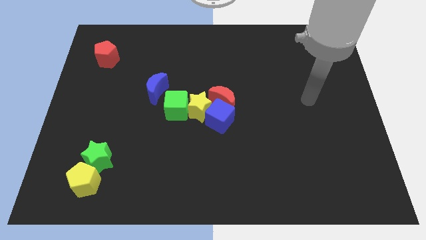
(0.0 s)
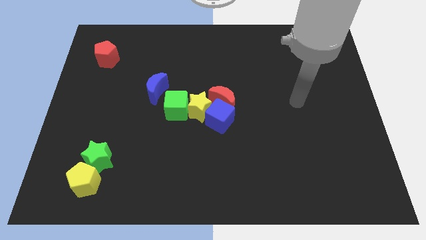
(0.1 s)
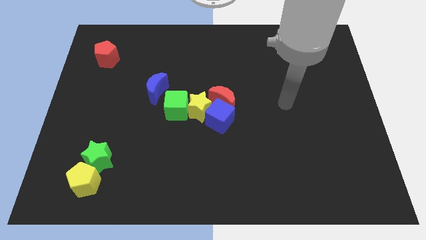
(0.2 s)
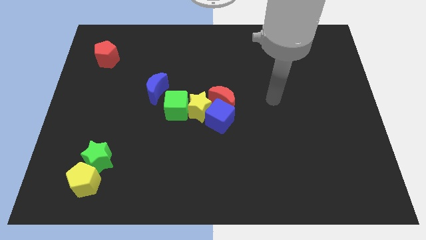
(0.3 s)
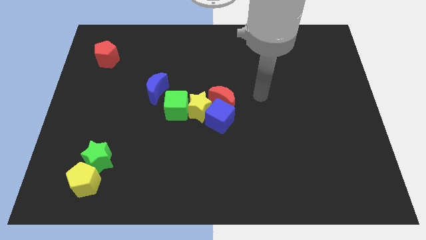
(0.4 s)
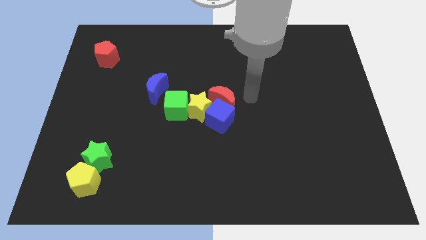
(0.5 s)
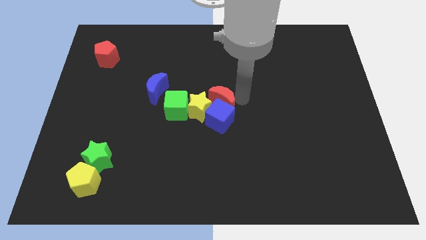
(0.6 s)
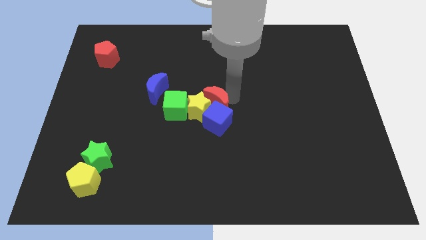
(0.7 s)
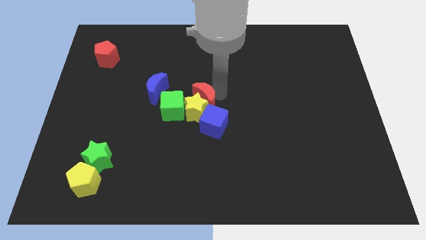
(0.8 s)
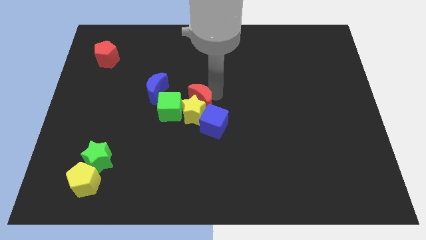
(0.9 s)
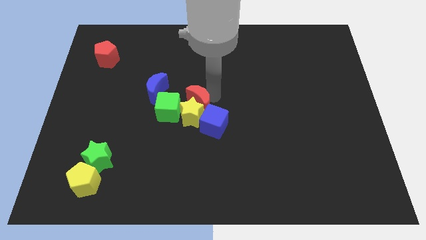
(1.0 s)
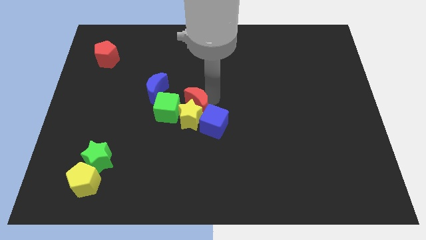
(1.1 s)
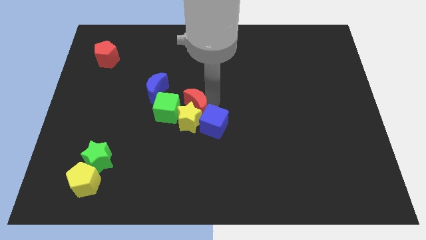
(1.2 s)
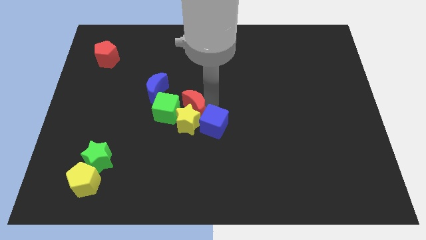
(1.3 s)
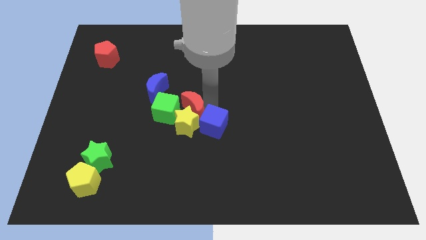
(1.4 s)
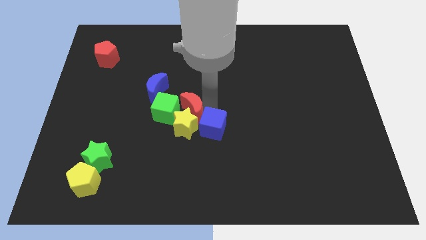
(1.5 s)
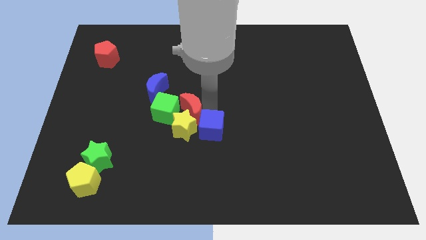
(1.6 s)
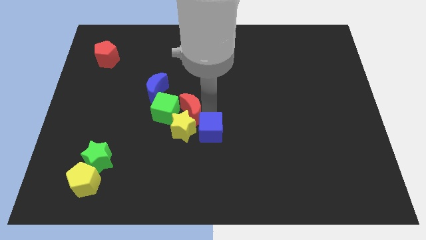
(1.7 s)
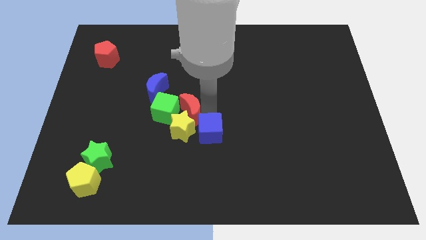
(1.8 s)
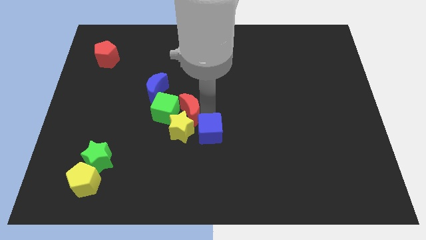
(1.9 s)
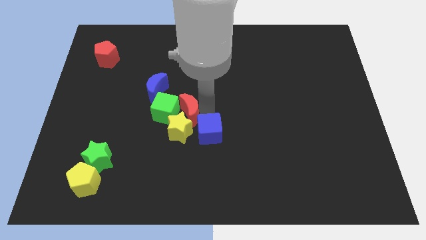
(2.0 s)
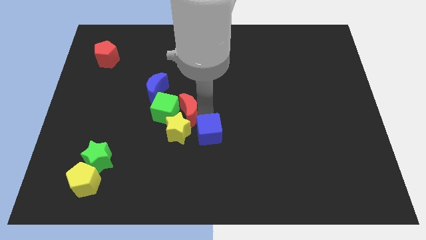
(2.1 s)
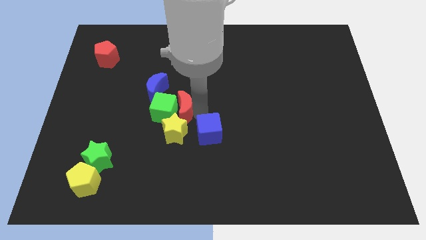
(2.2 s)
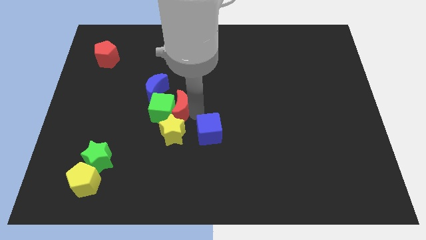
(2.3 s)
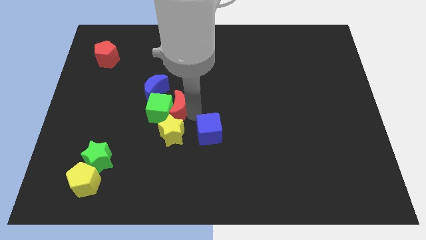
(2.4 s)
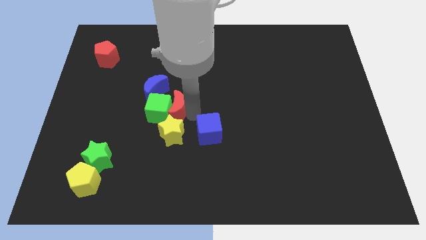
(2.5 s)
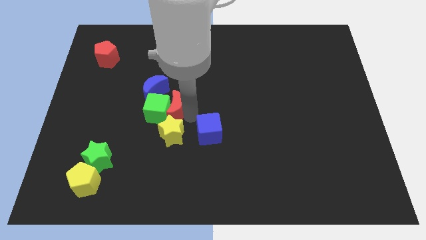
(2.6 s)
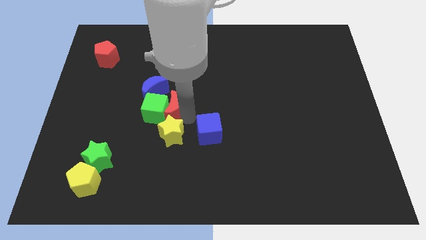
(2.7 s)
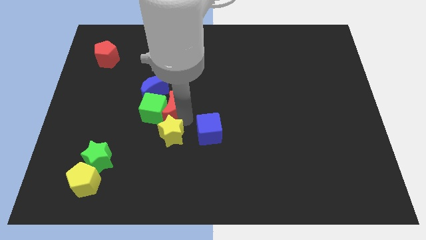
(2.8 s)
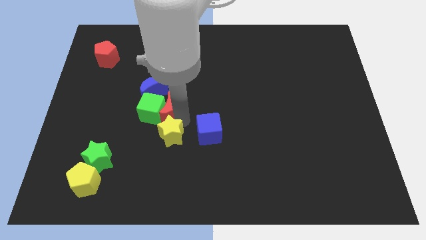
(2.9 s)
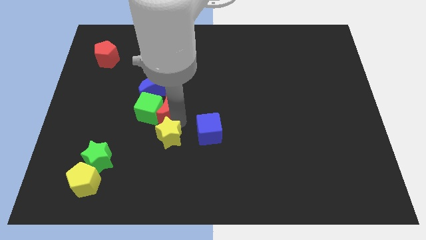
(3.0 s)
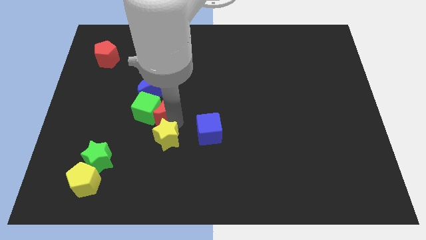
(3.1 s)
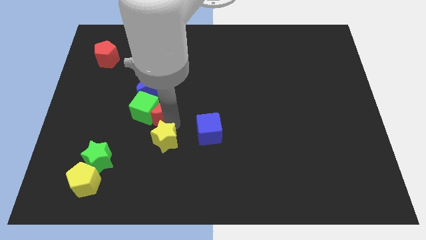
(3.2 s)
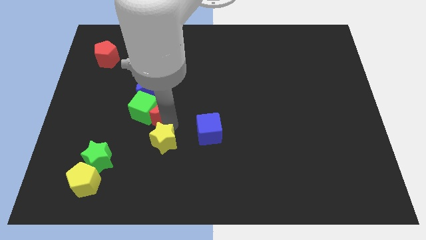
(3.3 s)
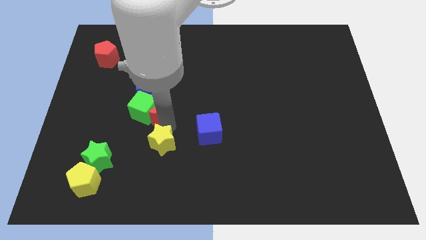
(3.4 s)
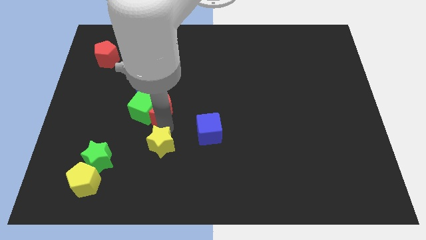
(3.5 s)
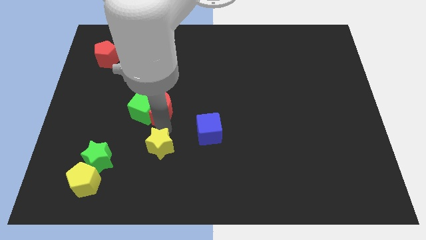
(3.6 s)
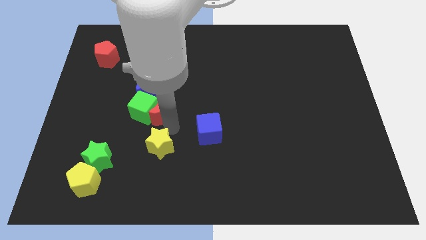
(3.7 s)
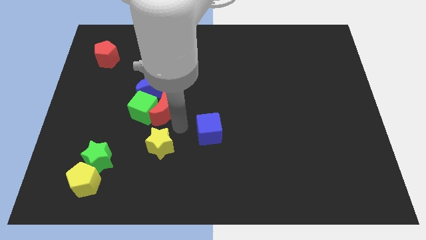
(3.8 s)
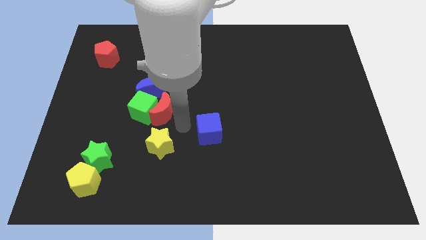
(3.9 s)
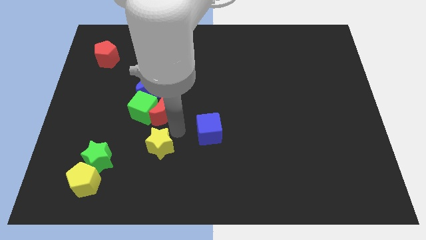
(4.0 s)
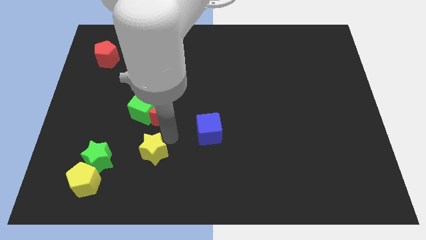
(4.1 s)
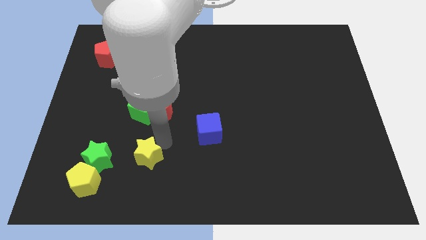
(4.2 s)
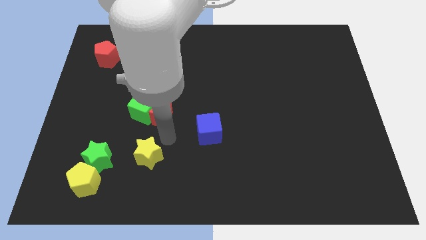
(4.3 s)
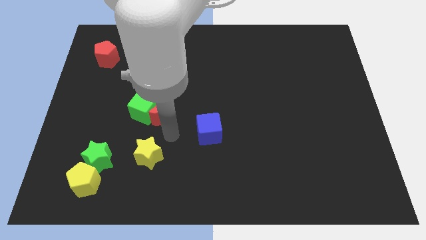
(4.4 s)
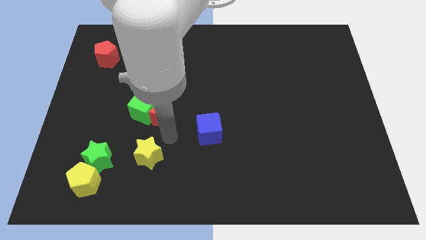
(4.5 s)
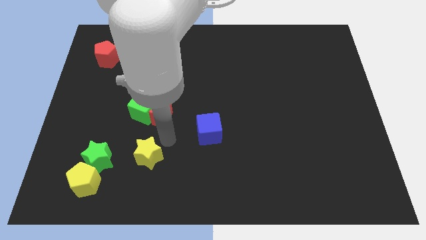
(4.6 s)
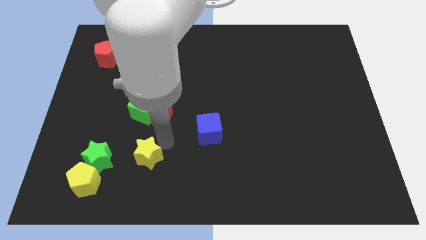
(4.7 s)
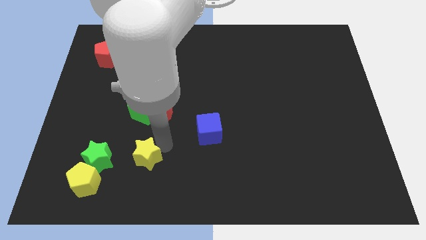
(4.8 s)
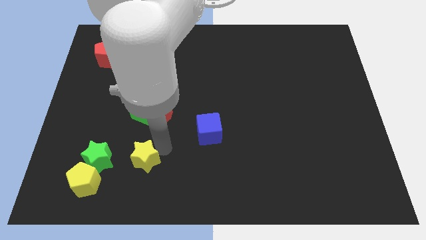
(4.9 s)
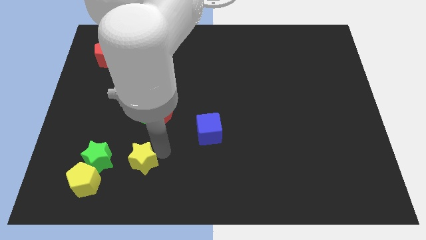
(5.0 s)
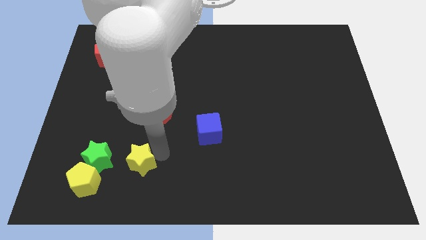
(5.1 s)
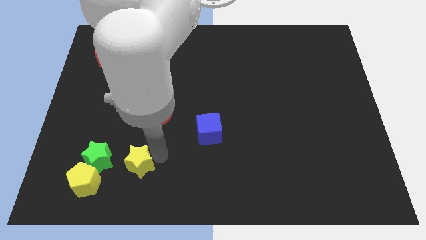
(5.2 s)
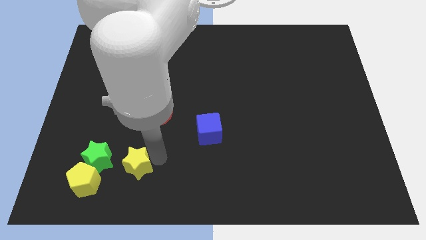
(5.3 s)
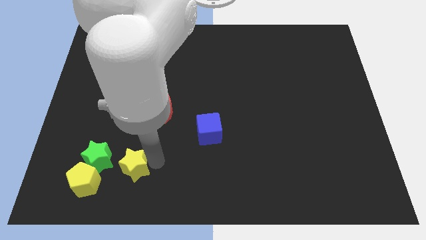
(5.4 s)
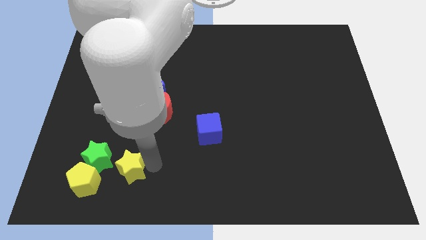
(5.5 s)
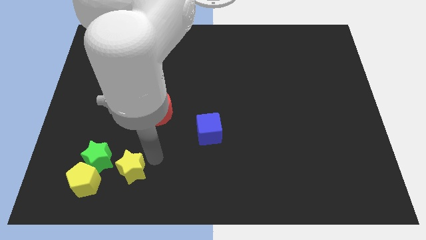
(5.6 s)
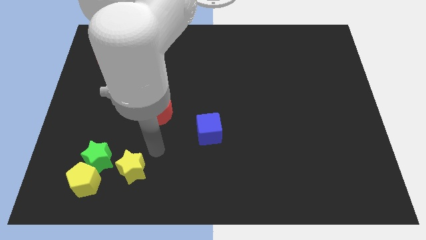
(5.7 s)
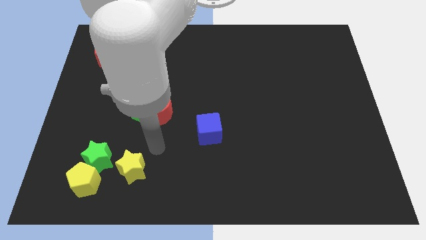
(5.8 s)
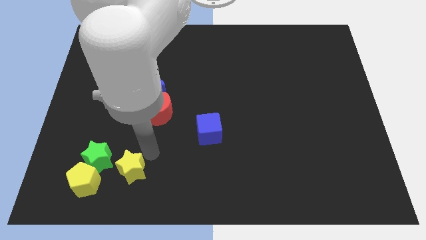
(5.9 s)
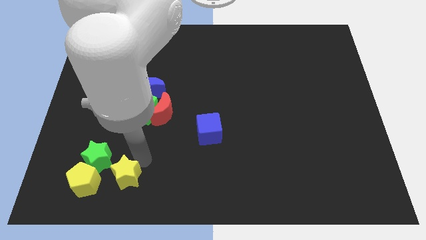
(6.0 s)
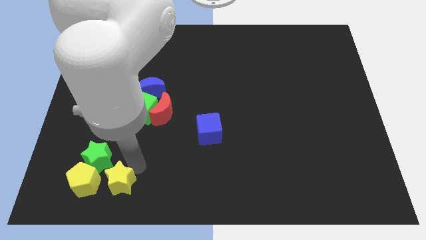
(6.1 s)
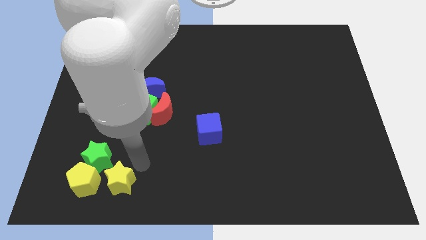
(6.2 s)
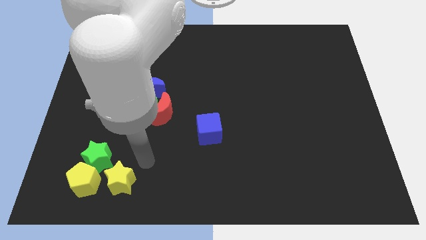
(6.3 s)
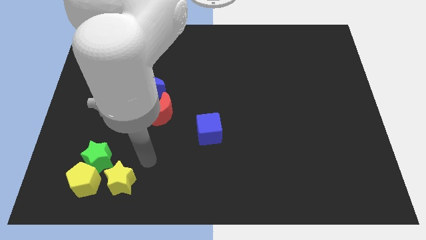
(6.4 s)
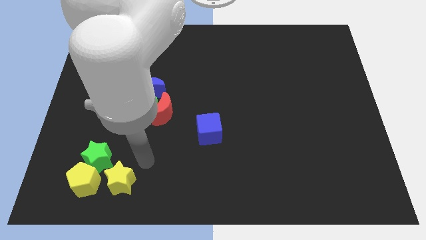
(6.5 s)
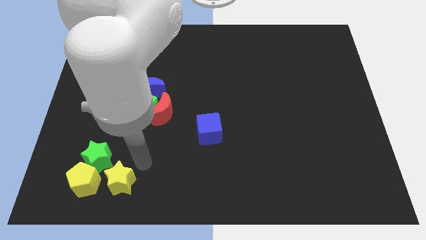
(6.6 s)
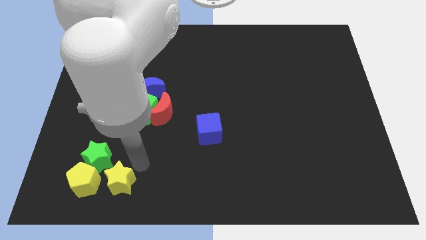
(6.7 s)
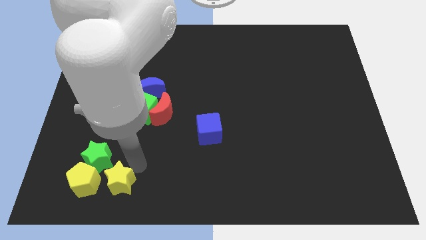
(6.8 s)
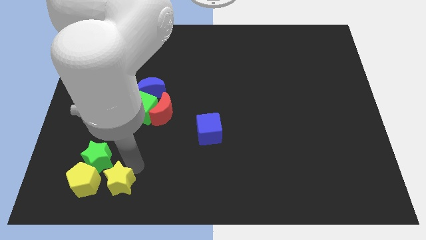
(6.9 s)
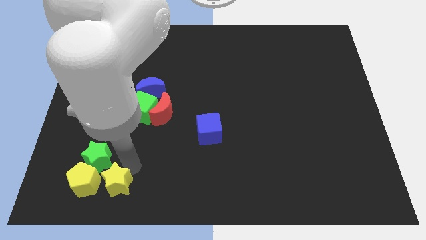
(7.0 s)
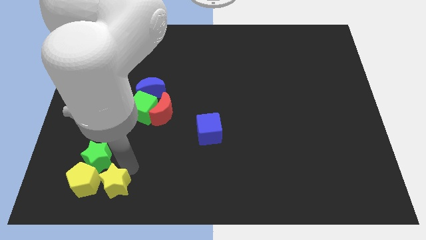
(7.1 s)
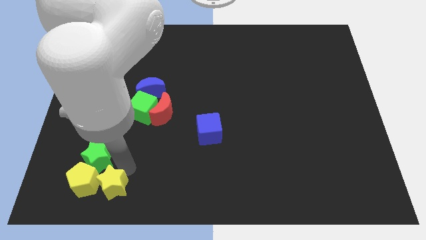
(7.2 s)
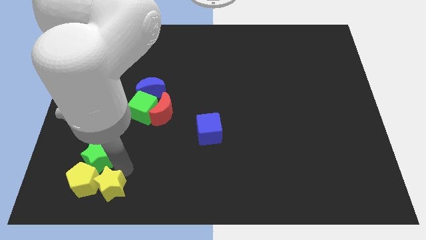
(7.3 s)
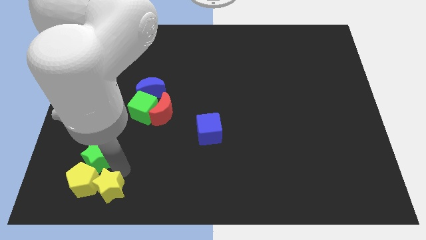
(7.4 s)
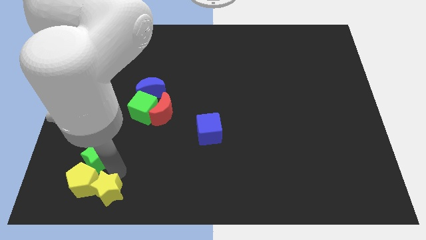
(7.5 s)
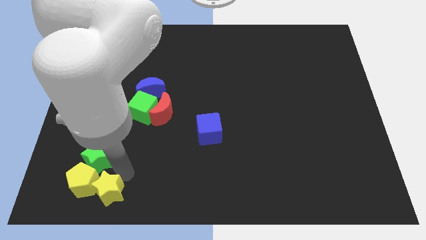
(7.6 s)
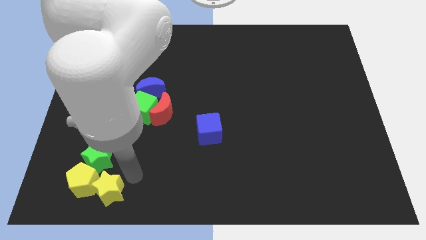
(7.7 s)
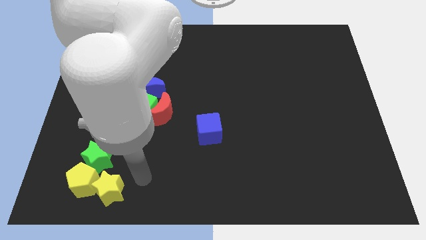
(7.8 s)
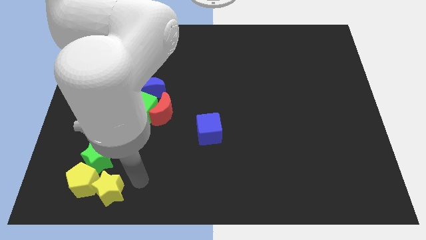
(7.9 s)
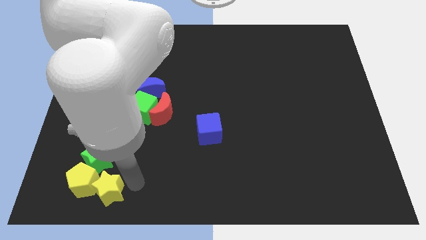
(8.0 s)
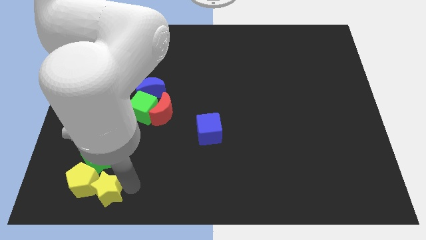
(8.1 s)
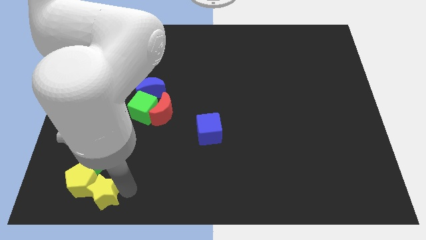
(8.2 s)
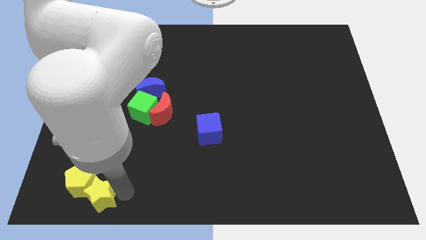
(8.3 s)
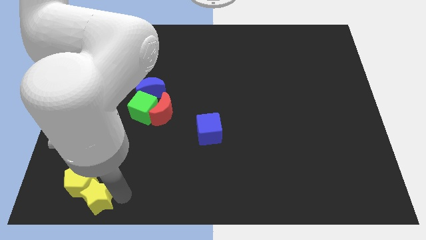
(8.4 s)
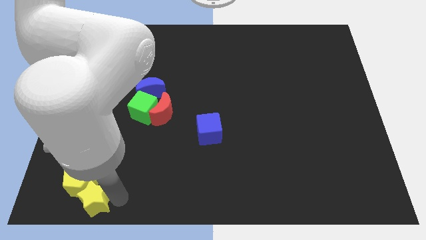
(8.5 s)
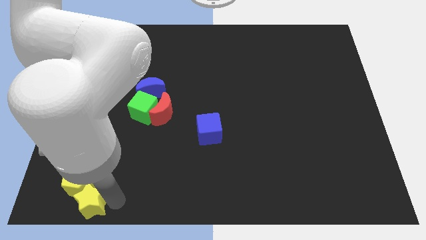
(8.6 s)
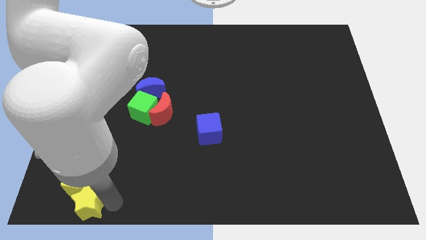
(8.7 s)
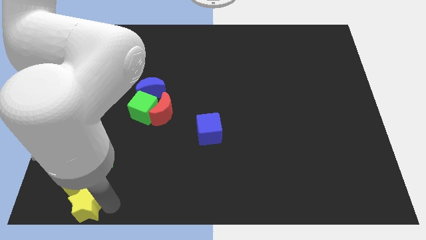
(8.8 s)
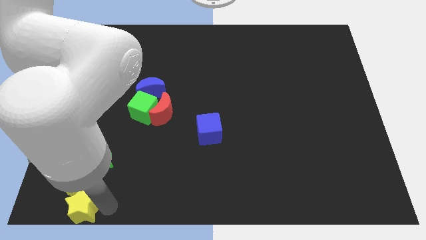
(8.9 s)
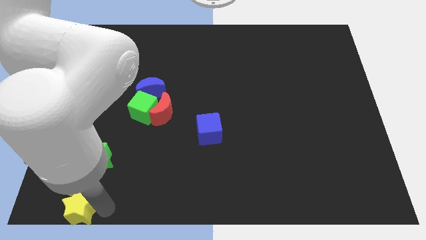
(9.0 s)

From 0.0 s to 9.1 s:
slide the yellow star to the lower left corner
